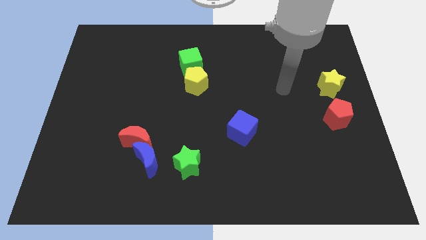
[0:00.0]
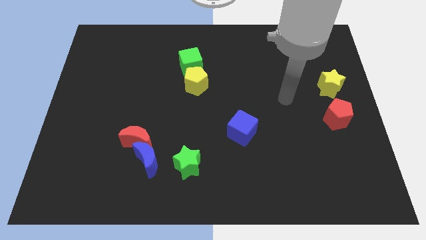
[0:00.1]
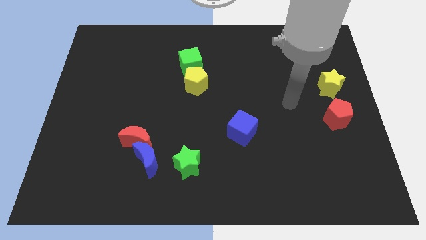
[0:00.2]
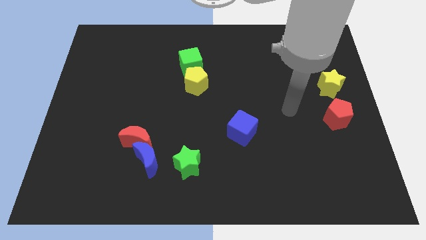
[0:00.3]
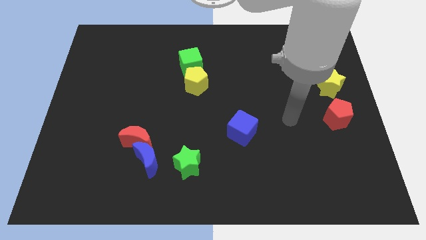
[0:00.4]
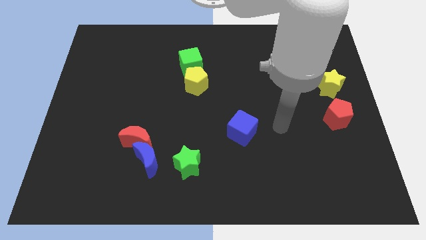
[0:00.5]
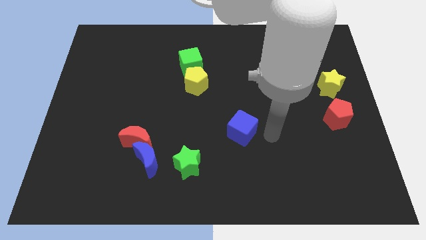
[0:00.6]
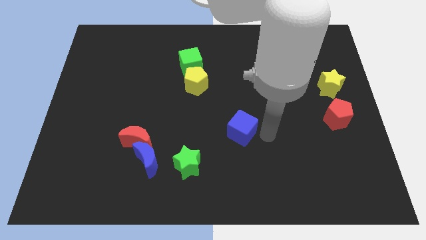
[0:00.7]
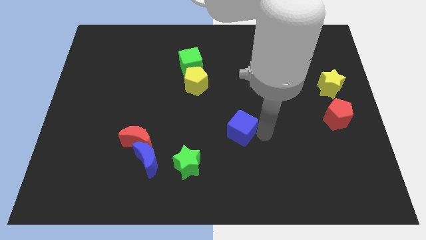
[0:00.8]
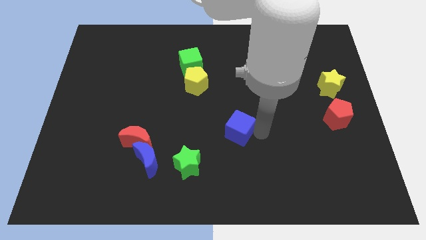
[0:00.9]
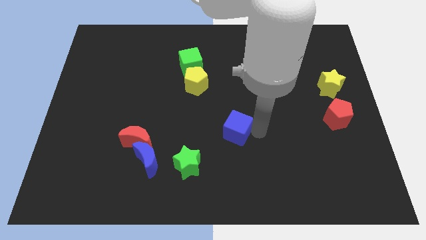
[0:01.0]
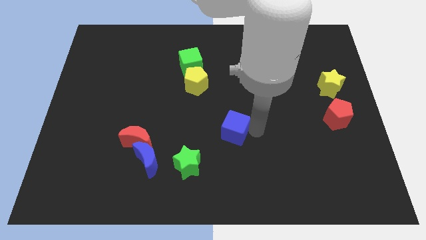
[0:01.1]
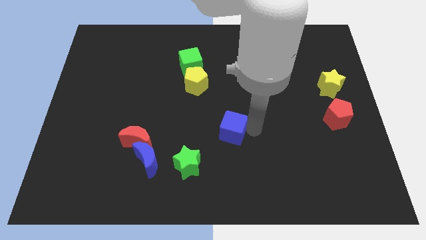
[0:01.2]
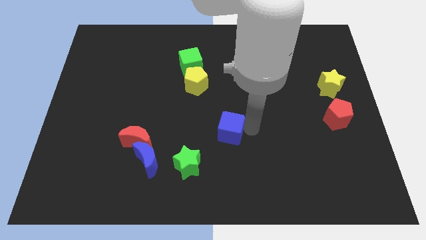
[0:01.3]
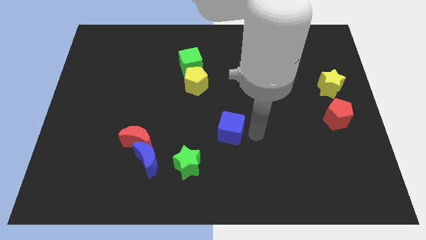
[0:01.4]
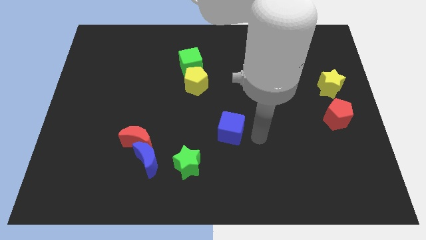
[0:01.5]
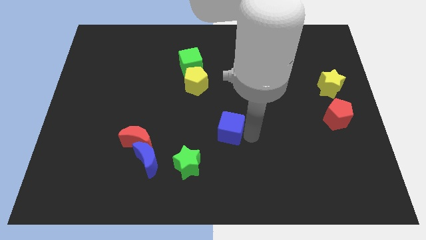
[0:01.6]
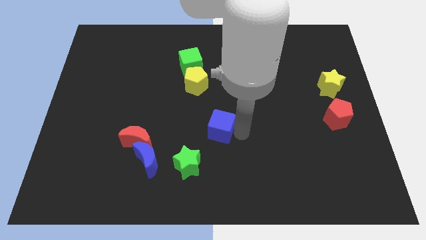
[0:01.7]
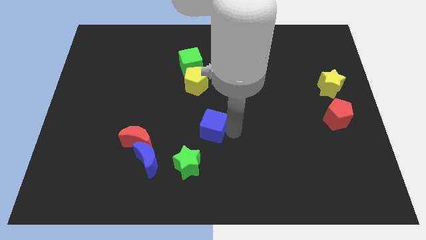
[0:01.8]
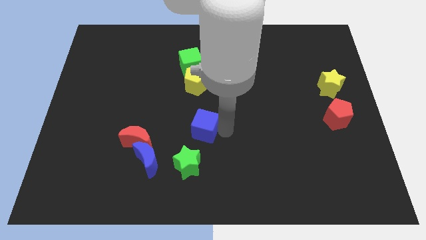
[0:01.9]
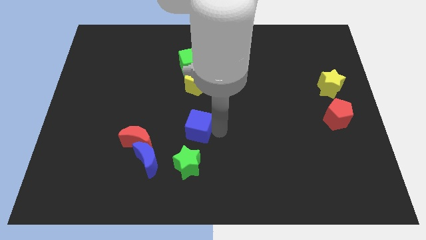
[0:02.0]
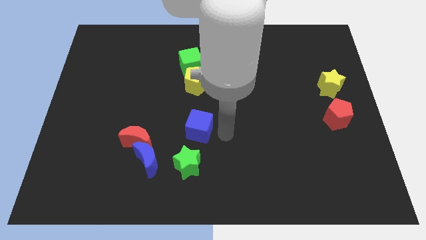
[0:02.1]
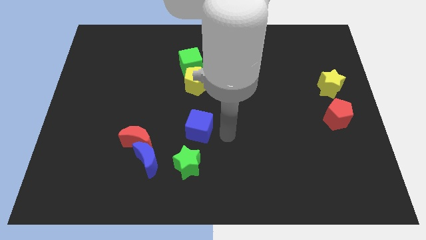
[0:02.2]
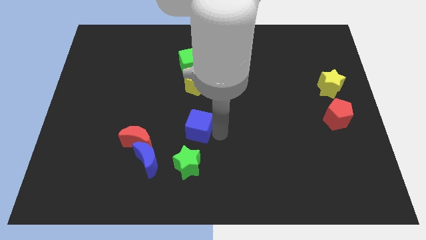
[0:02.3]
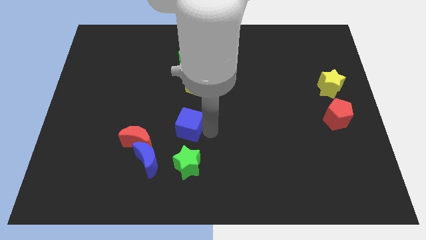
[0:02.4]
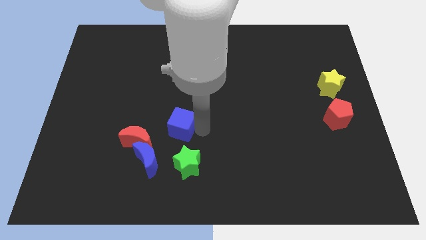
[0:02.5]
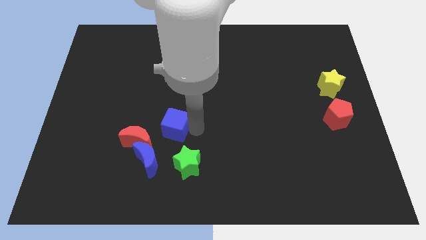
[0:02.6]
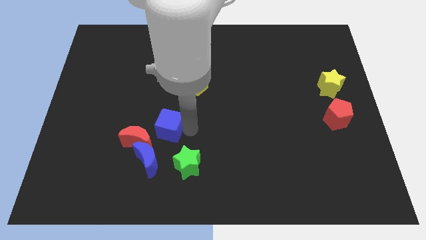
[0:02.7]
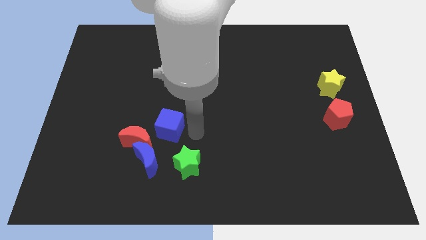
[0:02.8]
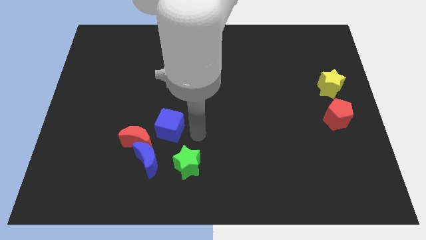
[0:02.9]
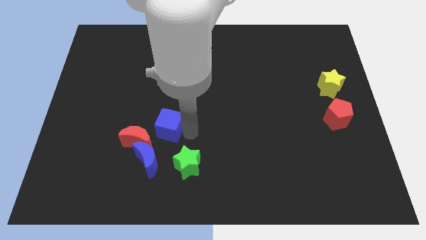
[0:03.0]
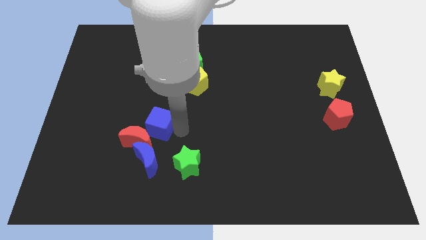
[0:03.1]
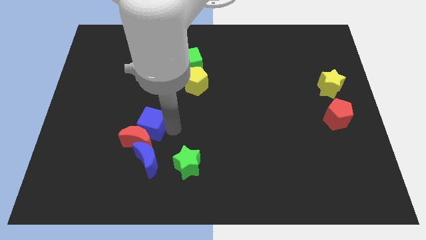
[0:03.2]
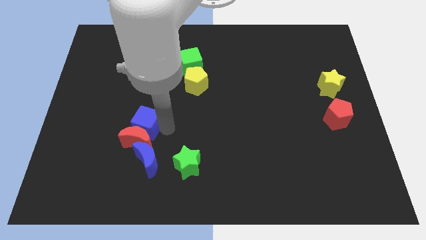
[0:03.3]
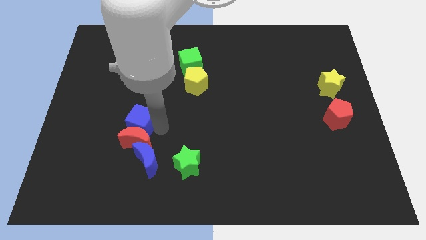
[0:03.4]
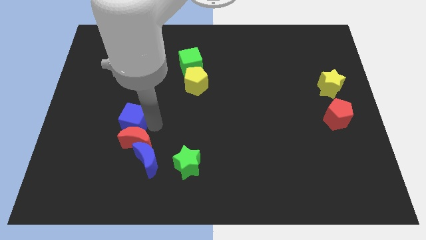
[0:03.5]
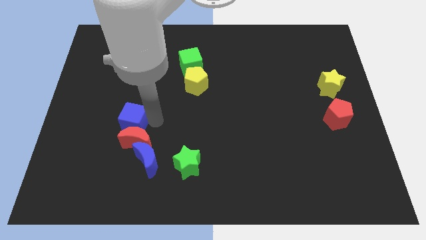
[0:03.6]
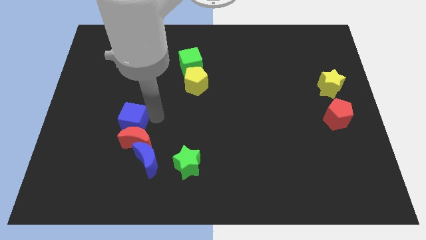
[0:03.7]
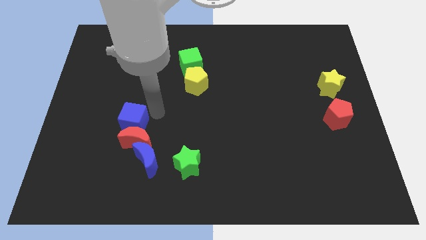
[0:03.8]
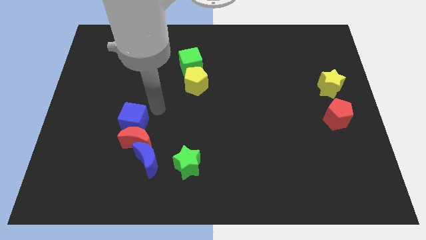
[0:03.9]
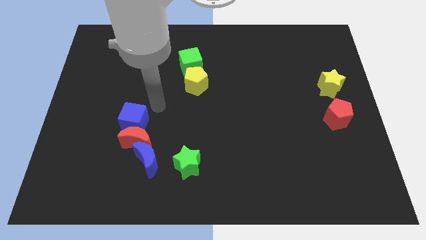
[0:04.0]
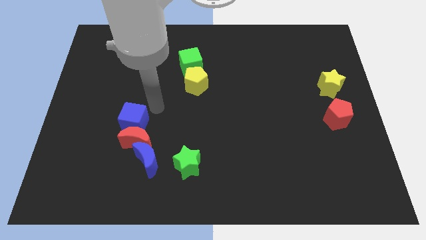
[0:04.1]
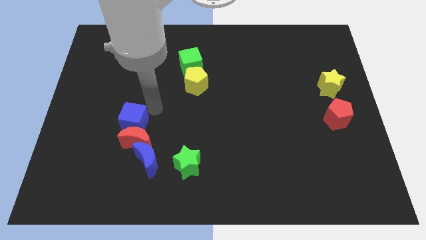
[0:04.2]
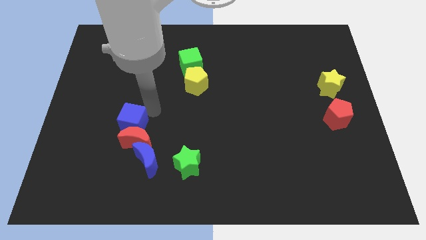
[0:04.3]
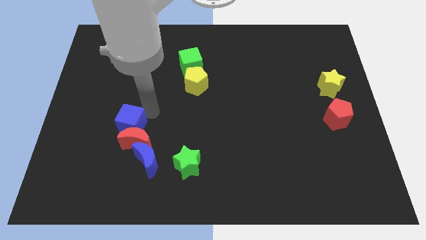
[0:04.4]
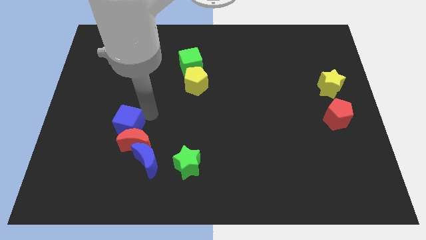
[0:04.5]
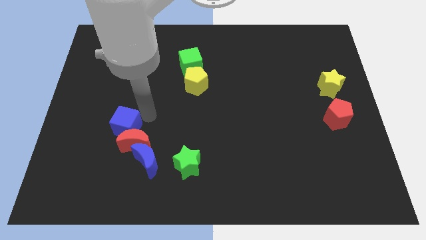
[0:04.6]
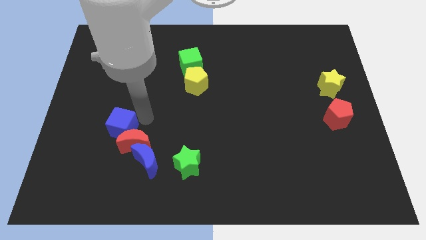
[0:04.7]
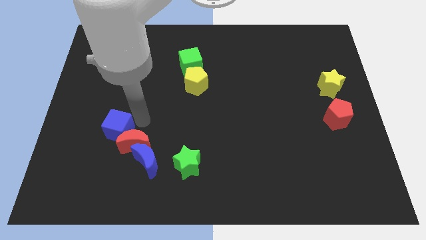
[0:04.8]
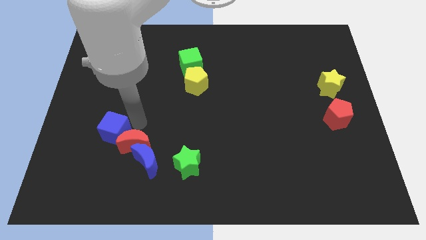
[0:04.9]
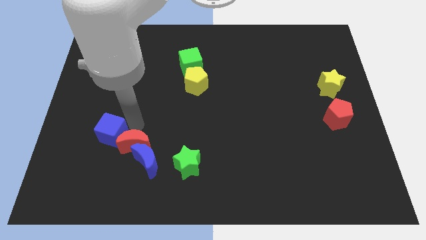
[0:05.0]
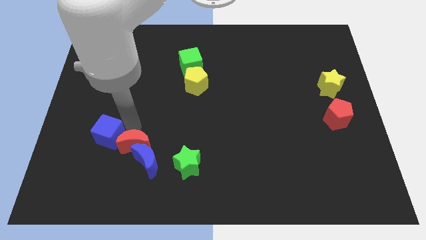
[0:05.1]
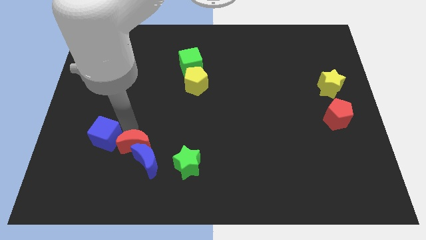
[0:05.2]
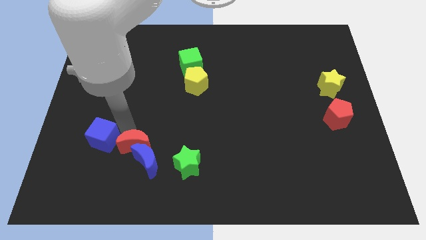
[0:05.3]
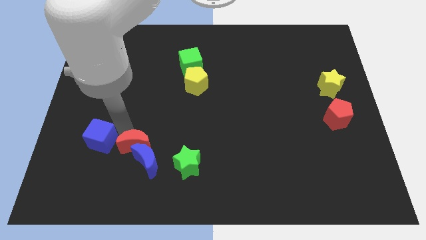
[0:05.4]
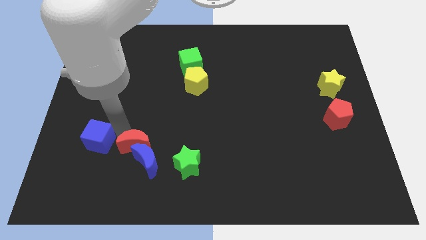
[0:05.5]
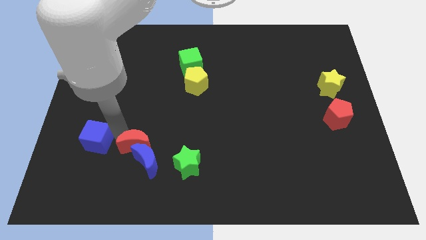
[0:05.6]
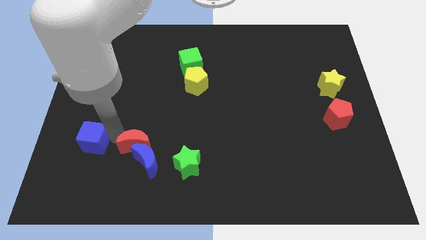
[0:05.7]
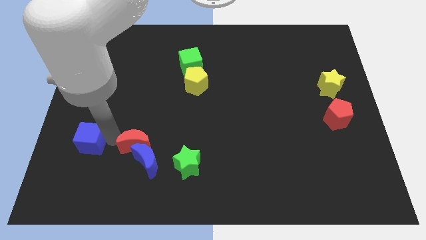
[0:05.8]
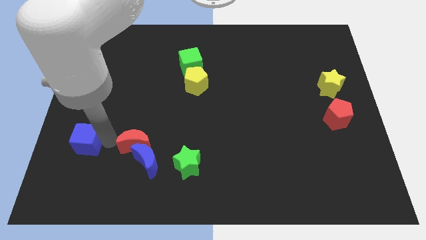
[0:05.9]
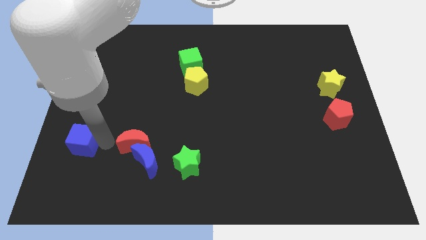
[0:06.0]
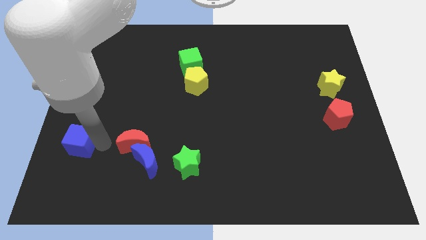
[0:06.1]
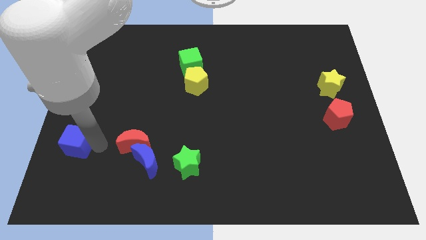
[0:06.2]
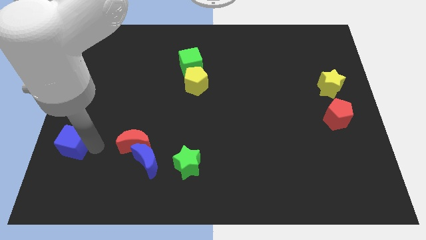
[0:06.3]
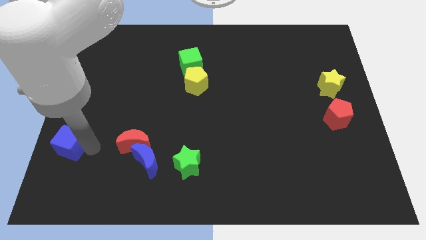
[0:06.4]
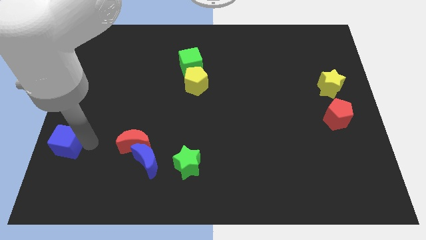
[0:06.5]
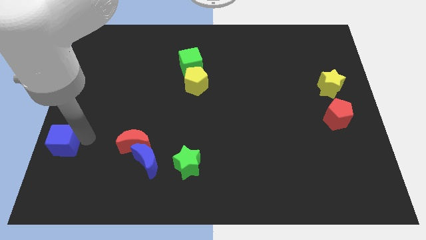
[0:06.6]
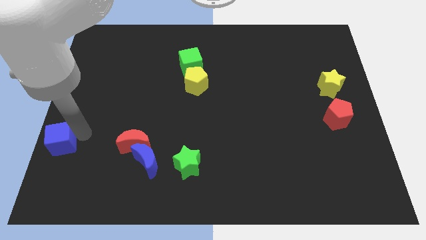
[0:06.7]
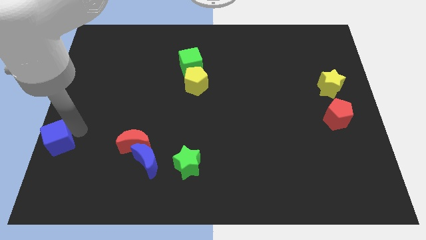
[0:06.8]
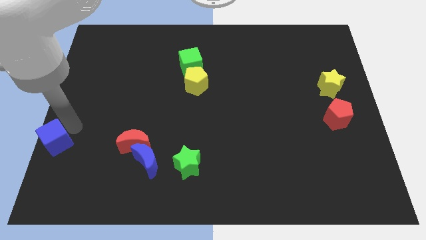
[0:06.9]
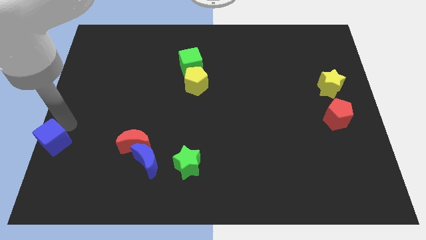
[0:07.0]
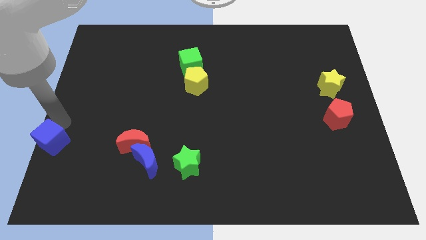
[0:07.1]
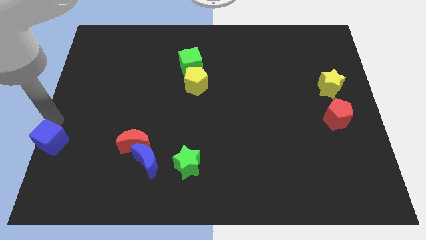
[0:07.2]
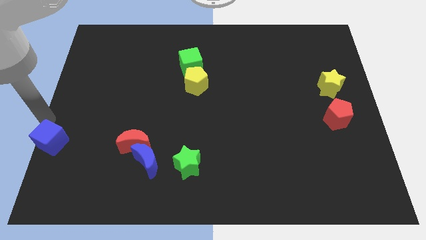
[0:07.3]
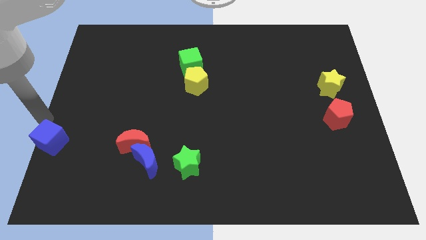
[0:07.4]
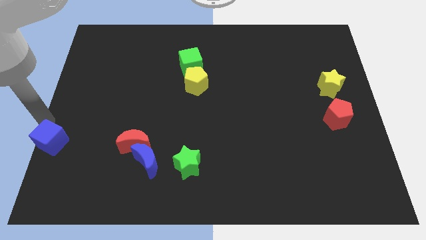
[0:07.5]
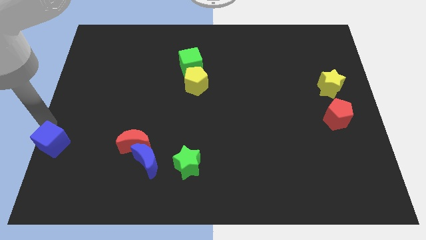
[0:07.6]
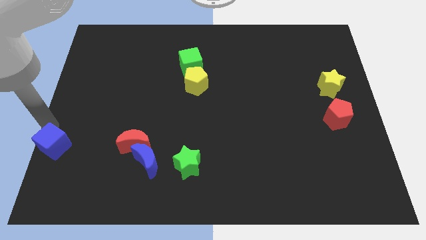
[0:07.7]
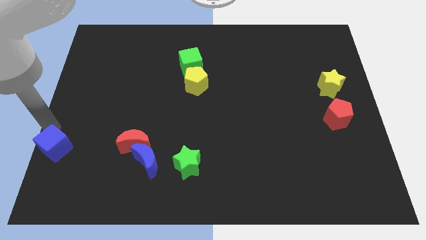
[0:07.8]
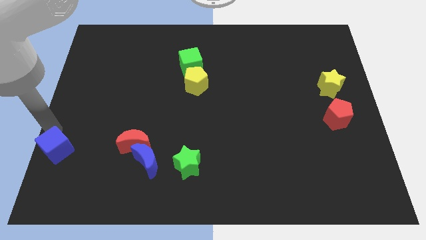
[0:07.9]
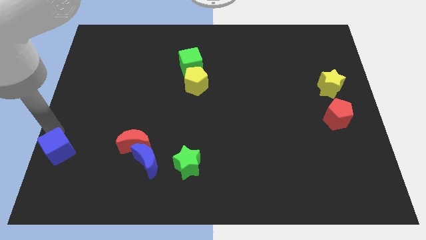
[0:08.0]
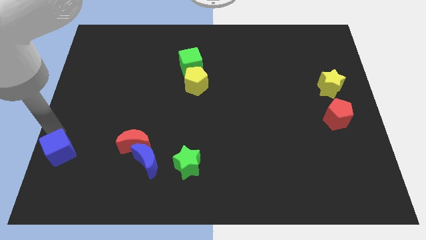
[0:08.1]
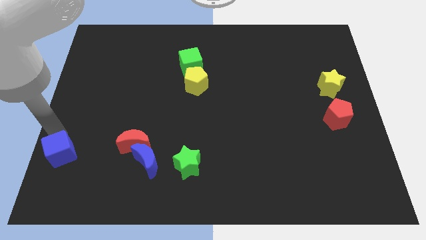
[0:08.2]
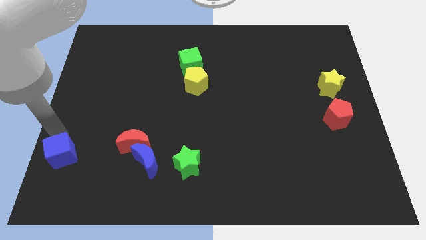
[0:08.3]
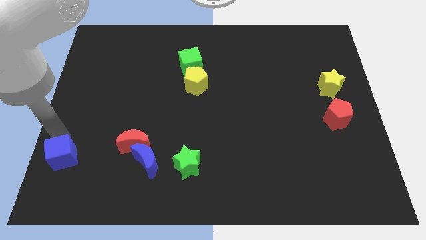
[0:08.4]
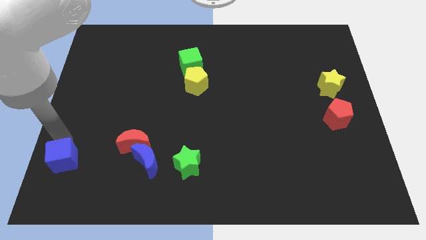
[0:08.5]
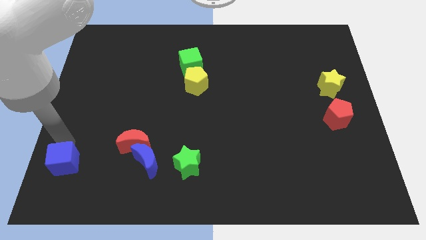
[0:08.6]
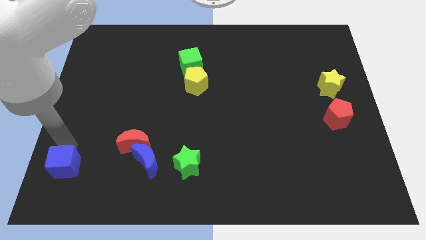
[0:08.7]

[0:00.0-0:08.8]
put the blue cube to the bottom left
